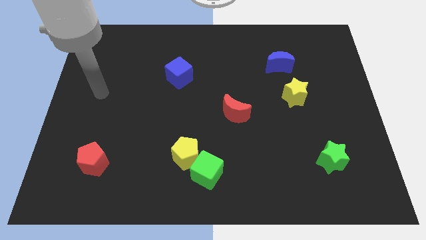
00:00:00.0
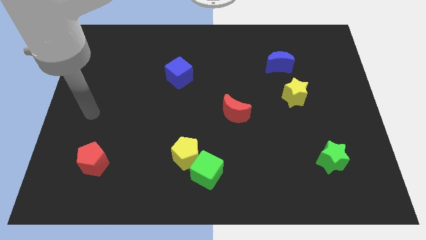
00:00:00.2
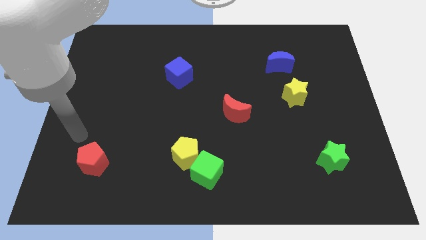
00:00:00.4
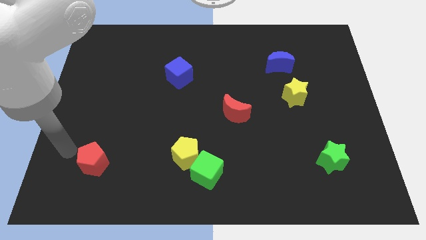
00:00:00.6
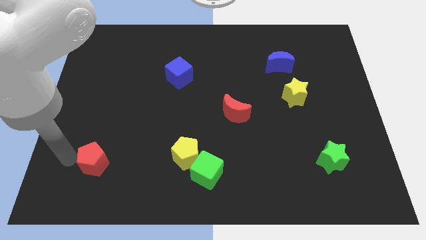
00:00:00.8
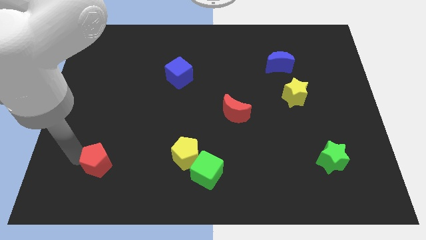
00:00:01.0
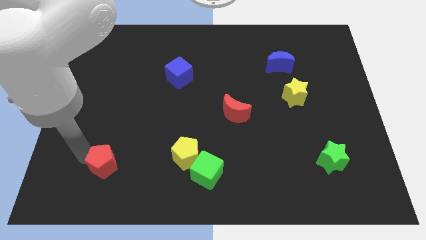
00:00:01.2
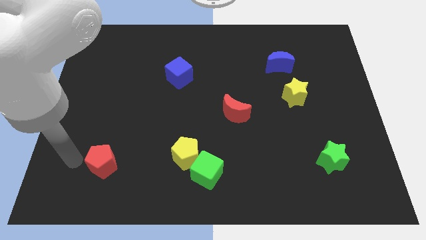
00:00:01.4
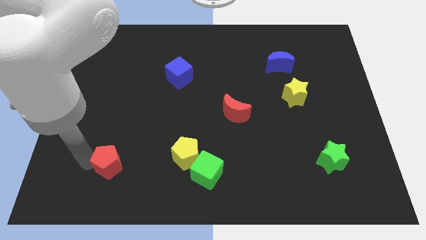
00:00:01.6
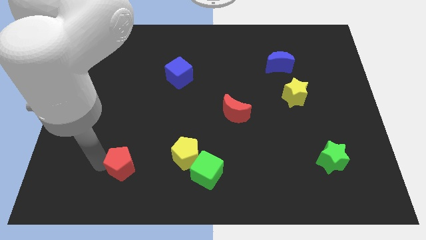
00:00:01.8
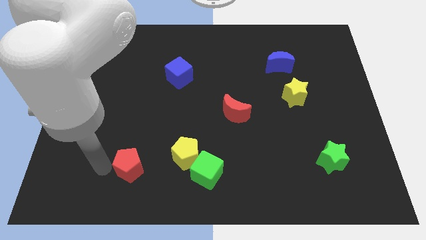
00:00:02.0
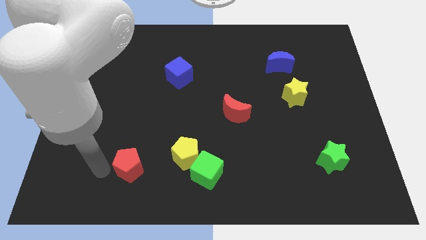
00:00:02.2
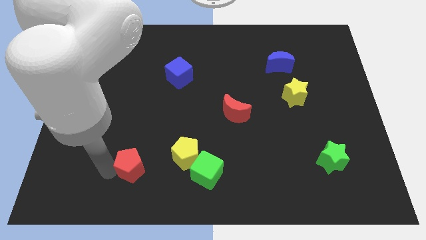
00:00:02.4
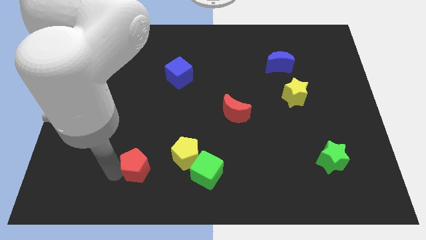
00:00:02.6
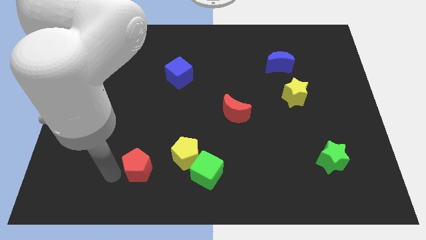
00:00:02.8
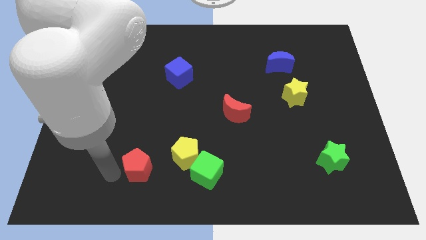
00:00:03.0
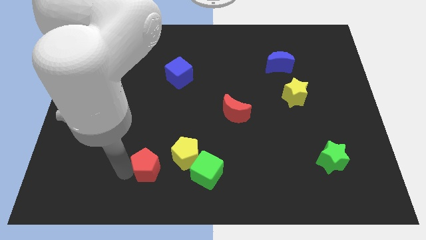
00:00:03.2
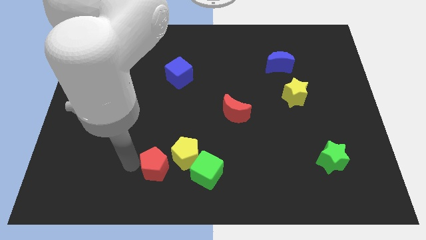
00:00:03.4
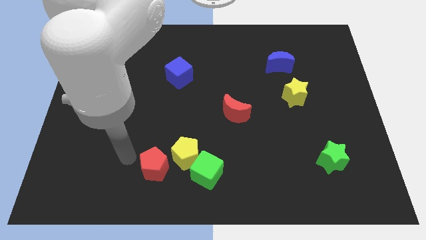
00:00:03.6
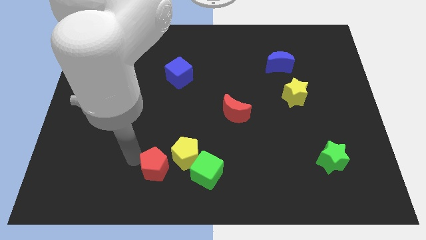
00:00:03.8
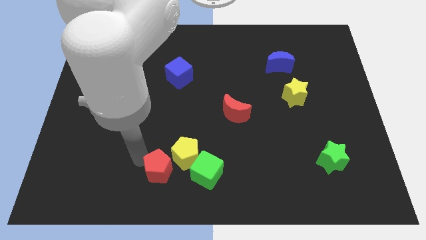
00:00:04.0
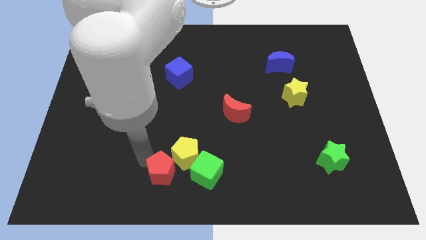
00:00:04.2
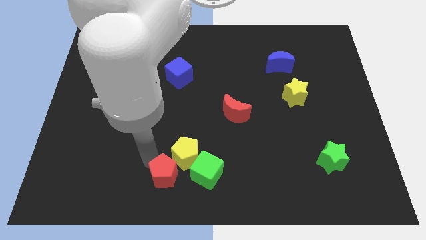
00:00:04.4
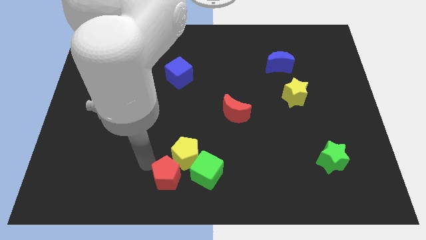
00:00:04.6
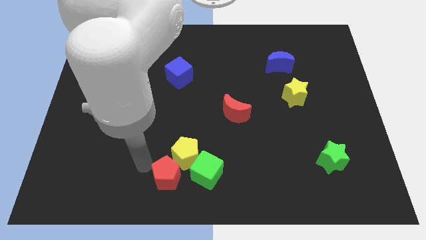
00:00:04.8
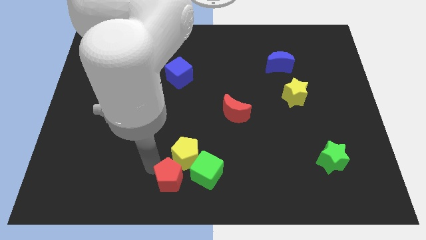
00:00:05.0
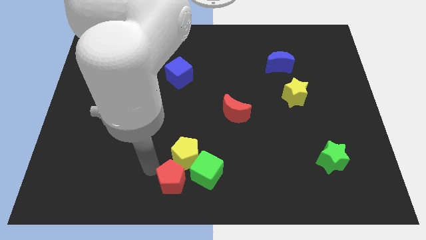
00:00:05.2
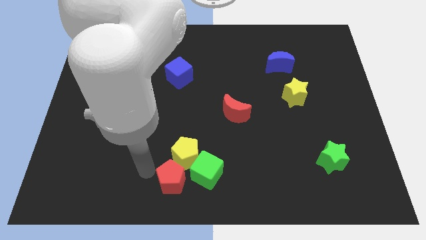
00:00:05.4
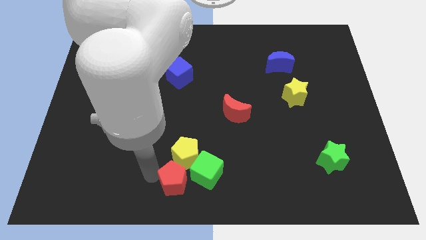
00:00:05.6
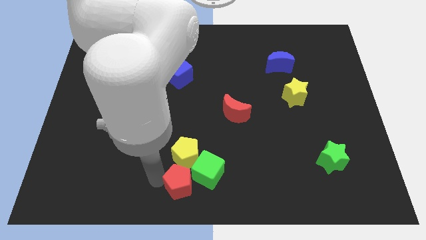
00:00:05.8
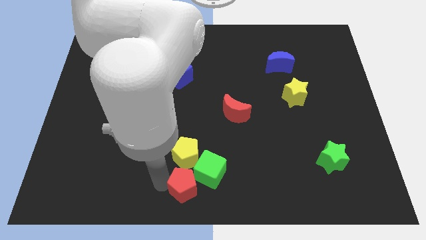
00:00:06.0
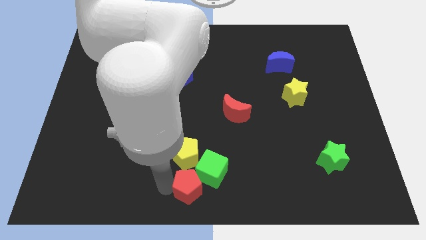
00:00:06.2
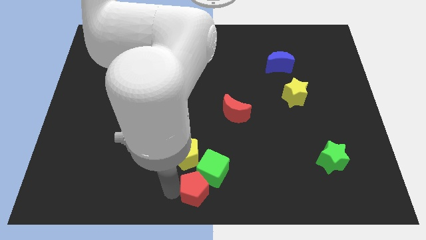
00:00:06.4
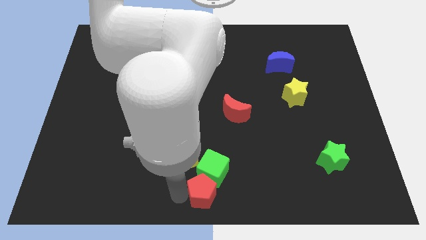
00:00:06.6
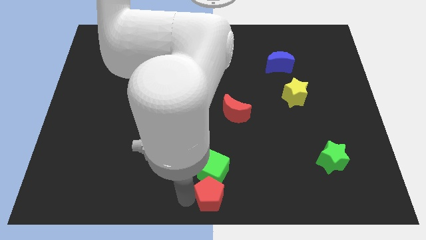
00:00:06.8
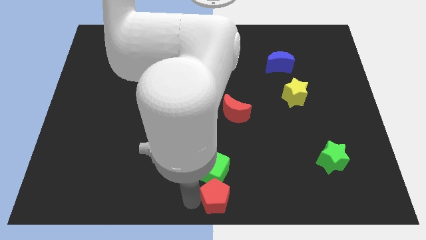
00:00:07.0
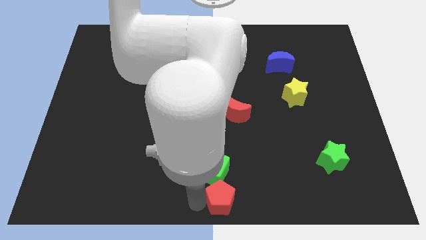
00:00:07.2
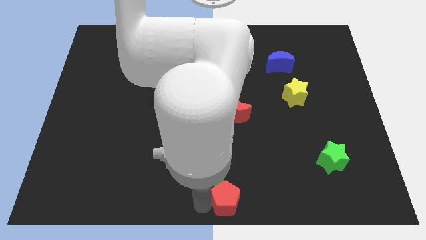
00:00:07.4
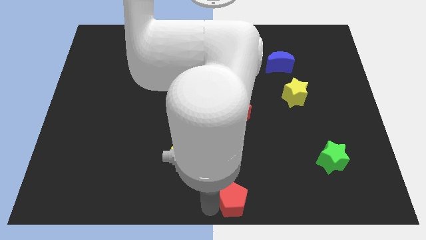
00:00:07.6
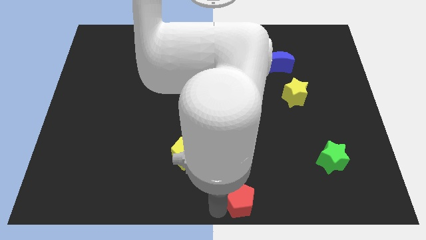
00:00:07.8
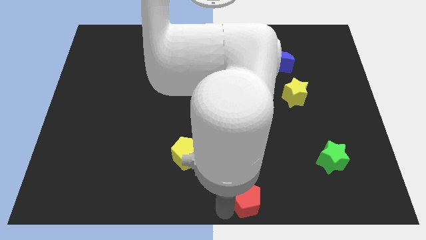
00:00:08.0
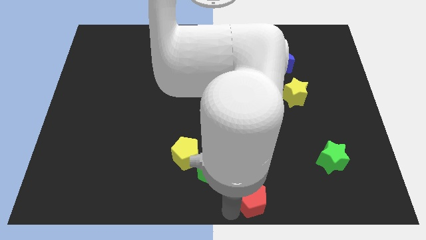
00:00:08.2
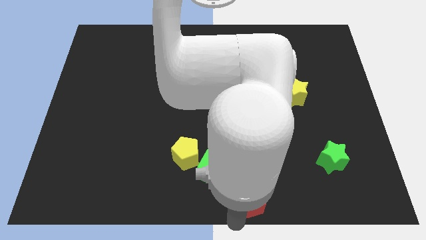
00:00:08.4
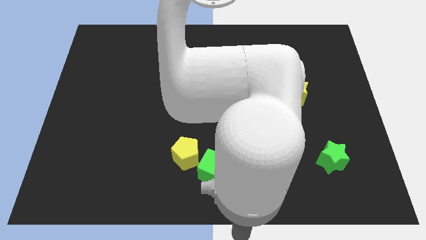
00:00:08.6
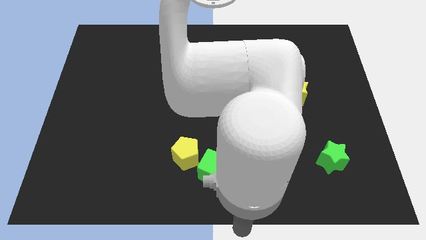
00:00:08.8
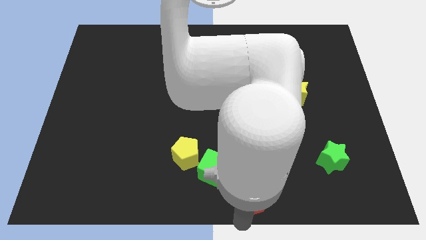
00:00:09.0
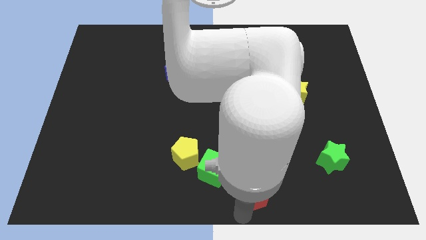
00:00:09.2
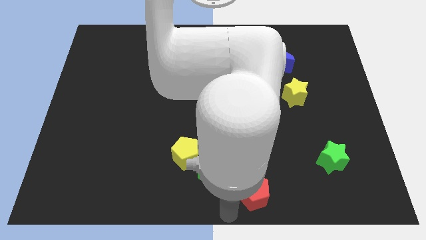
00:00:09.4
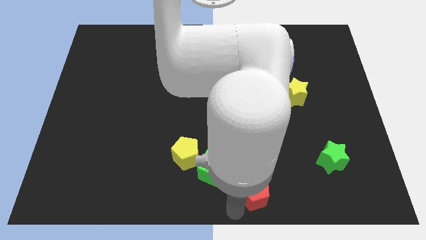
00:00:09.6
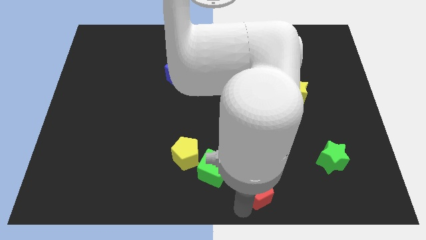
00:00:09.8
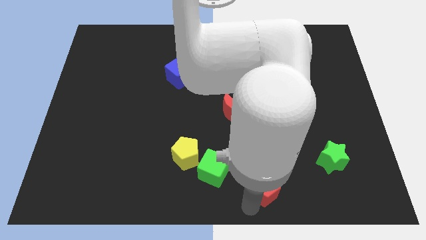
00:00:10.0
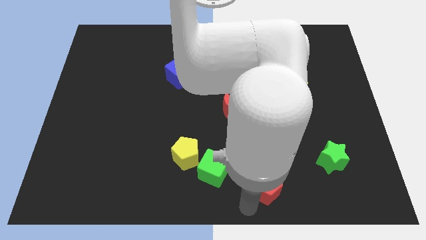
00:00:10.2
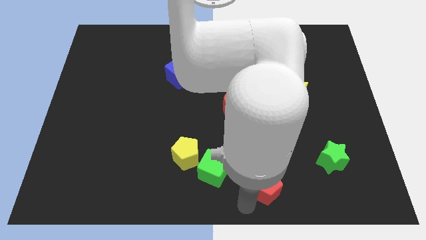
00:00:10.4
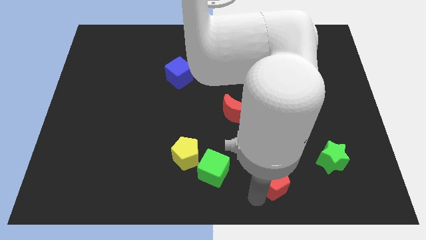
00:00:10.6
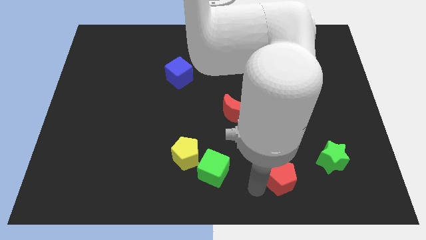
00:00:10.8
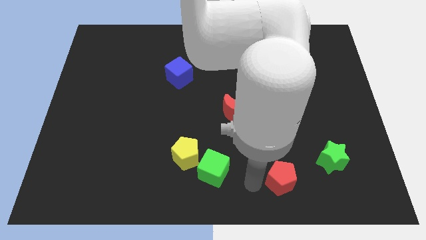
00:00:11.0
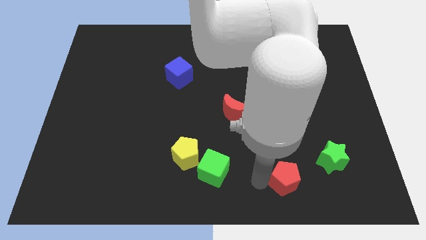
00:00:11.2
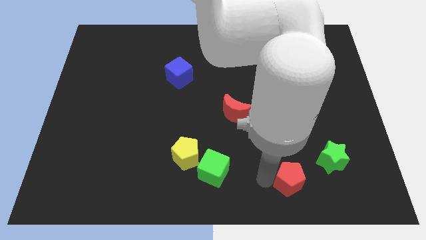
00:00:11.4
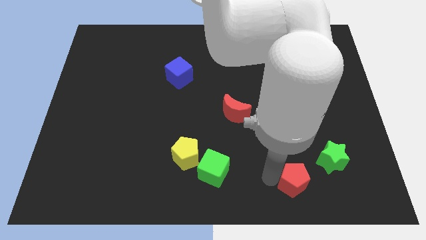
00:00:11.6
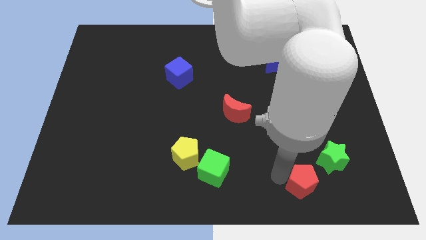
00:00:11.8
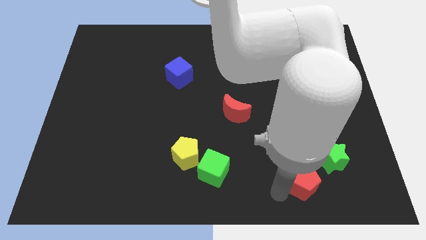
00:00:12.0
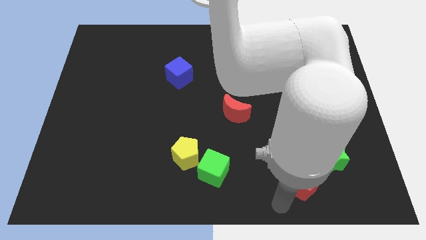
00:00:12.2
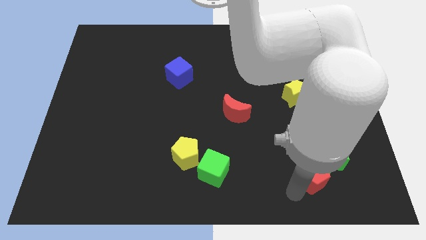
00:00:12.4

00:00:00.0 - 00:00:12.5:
push the red pentagon to the green star
